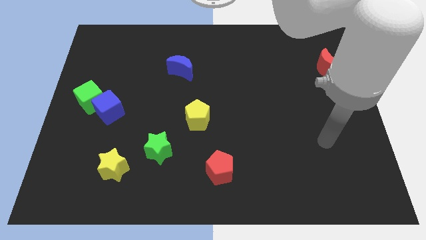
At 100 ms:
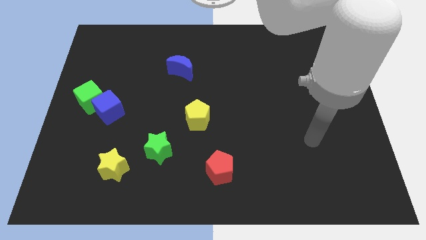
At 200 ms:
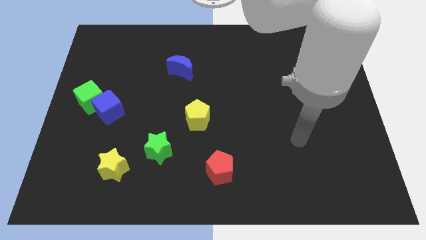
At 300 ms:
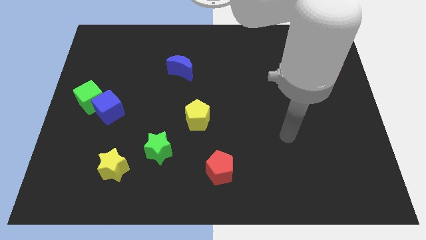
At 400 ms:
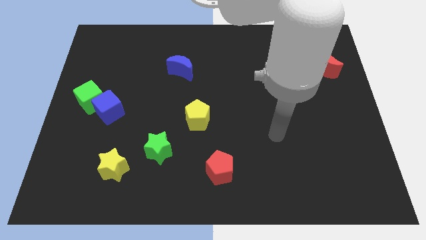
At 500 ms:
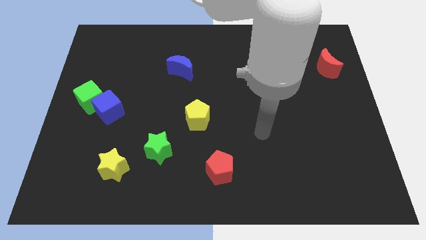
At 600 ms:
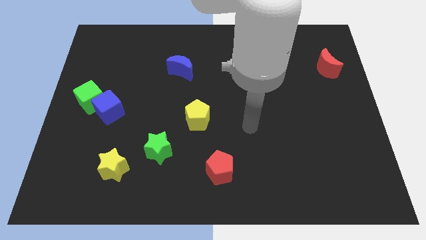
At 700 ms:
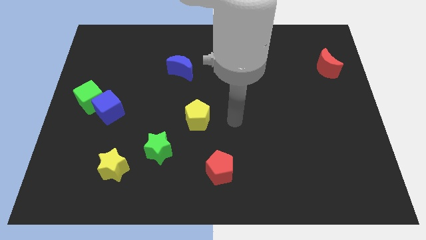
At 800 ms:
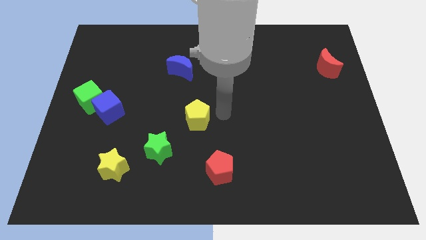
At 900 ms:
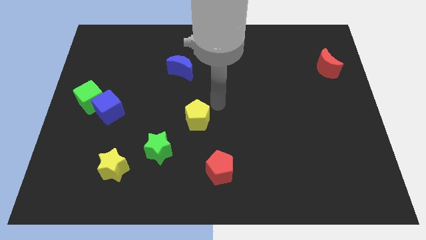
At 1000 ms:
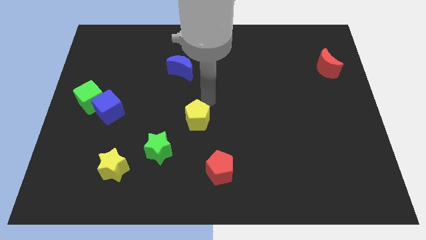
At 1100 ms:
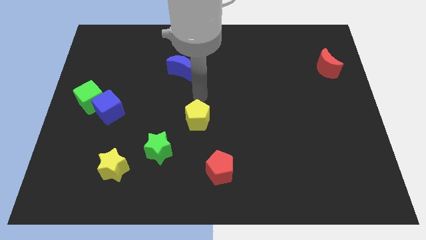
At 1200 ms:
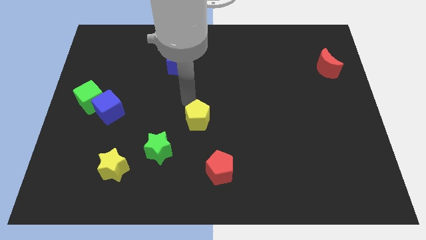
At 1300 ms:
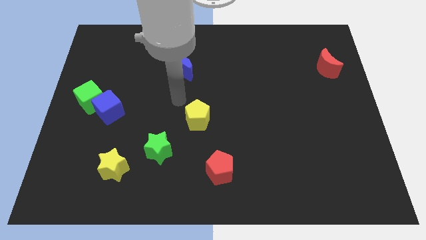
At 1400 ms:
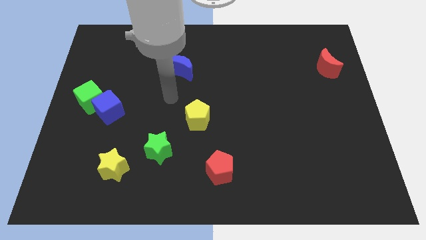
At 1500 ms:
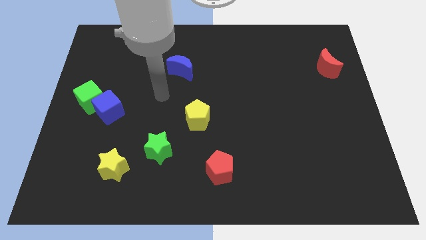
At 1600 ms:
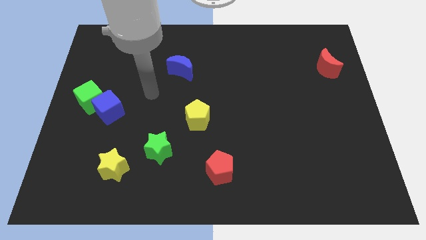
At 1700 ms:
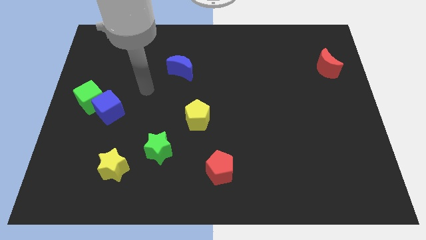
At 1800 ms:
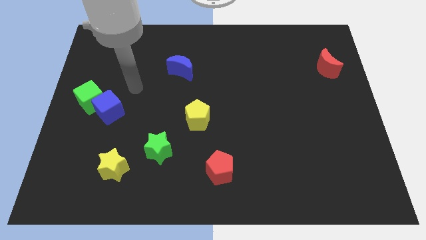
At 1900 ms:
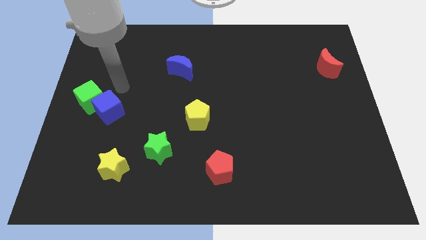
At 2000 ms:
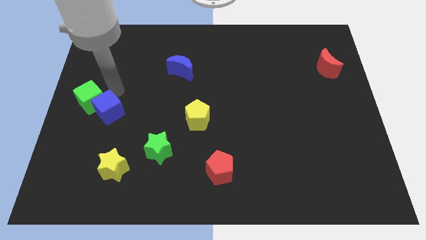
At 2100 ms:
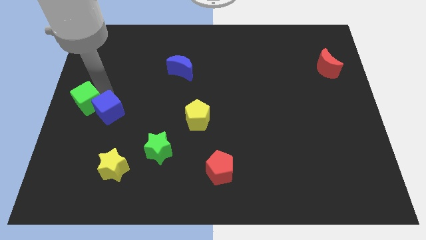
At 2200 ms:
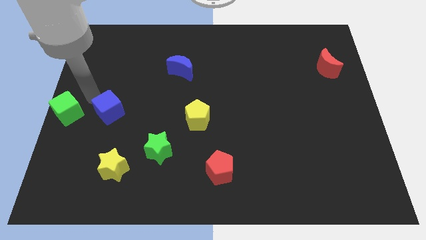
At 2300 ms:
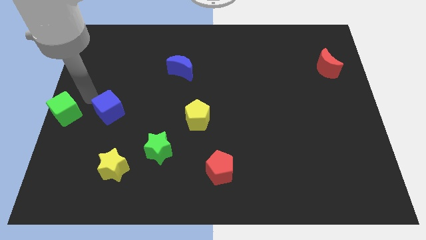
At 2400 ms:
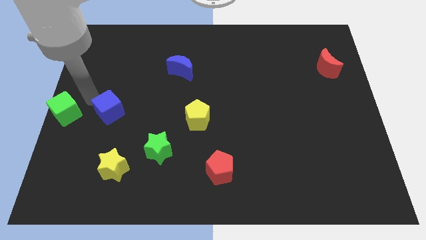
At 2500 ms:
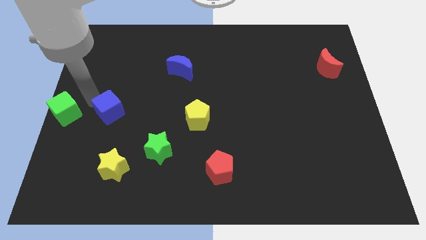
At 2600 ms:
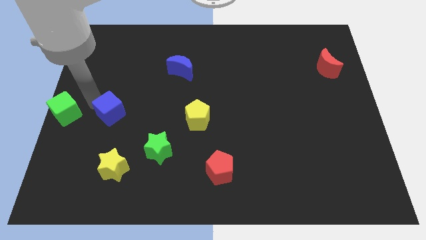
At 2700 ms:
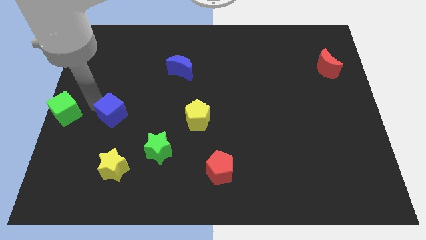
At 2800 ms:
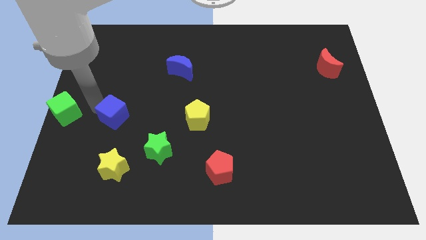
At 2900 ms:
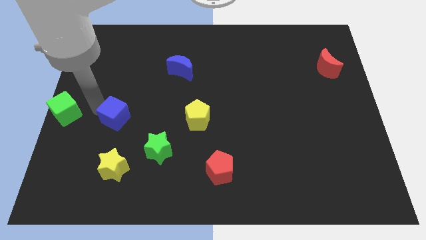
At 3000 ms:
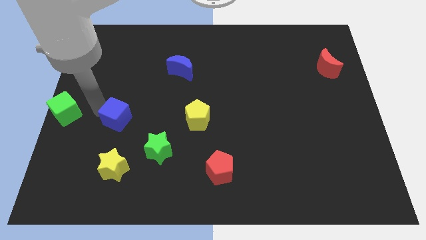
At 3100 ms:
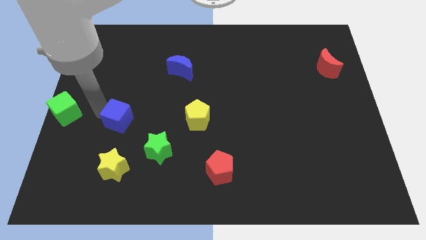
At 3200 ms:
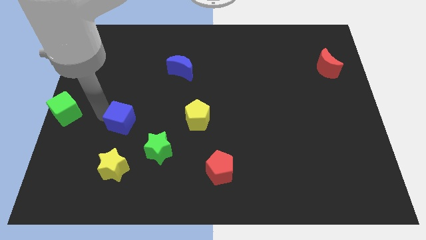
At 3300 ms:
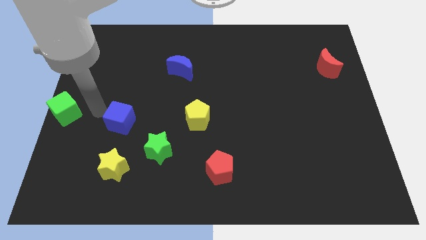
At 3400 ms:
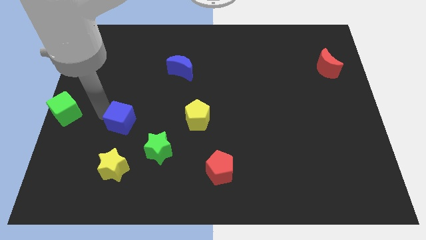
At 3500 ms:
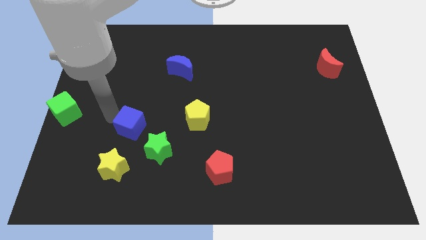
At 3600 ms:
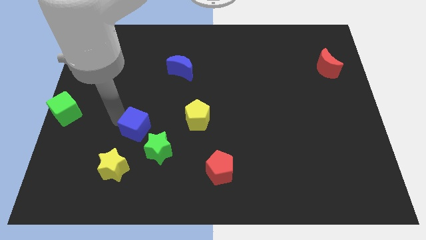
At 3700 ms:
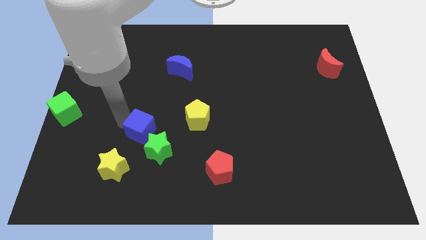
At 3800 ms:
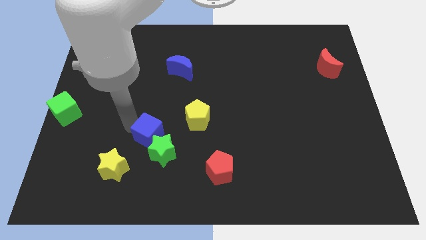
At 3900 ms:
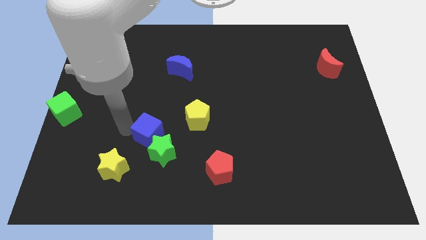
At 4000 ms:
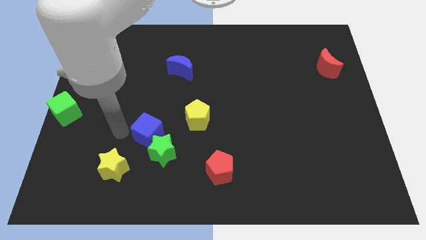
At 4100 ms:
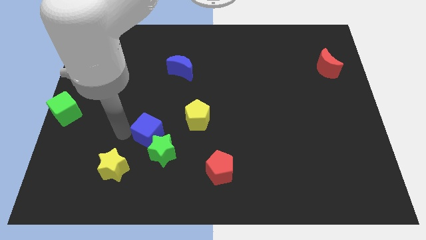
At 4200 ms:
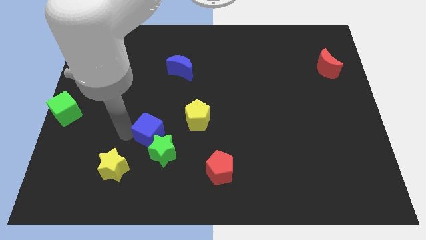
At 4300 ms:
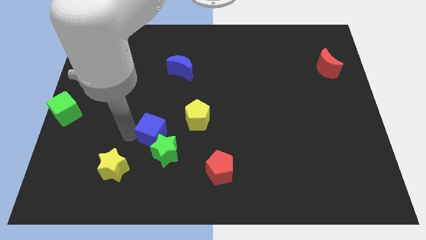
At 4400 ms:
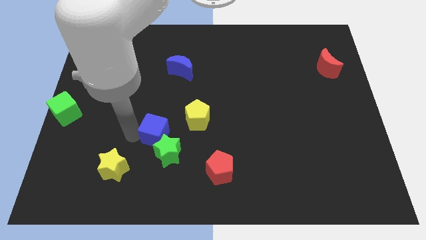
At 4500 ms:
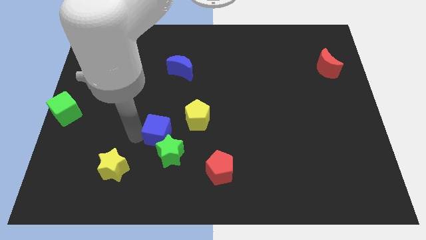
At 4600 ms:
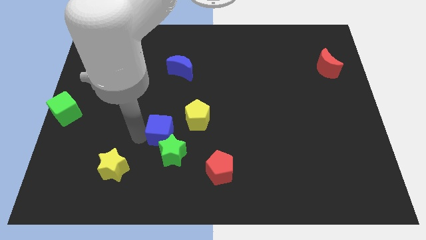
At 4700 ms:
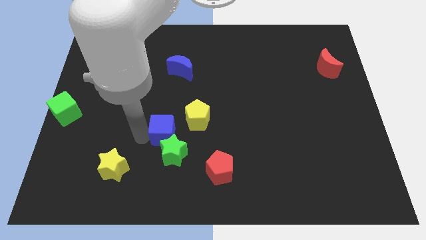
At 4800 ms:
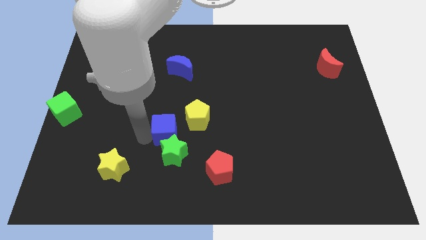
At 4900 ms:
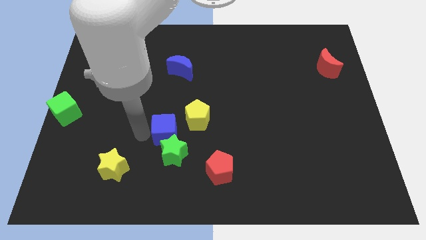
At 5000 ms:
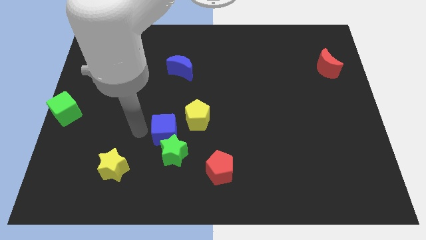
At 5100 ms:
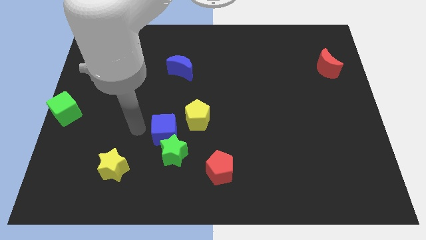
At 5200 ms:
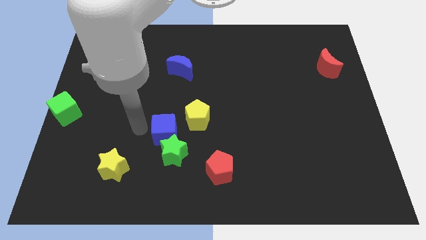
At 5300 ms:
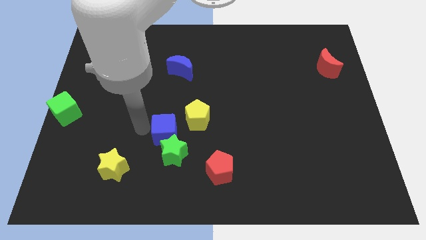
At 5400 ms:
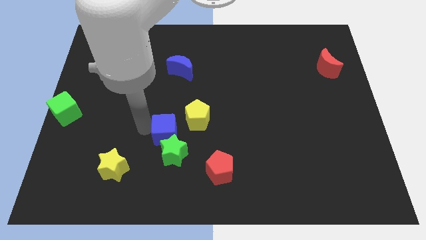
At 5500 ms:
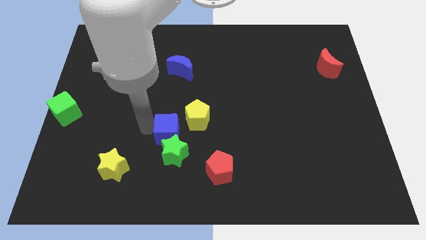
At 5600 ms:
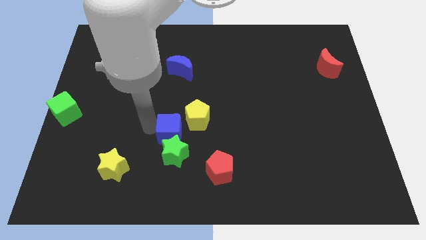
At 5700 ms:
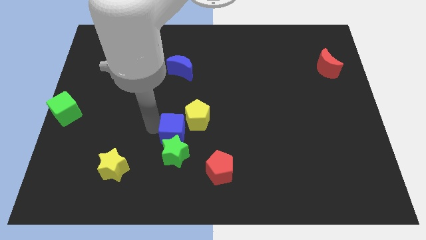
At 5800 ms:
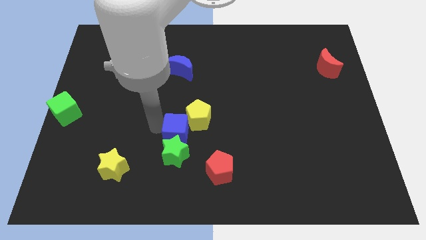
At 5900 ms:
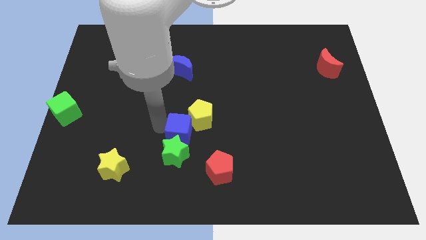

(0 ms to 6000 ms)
put the blue cube to the top left of the red pentagon

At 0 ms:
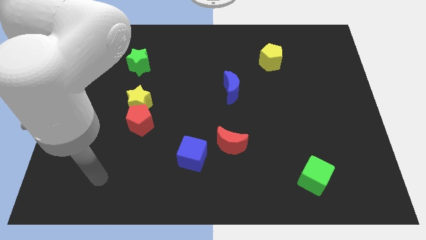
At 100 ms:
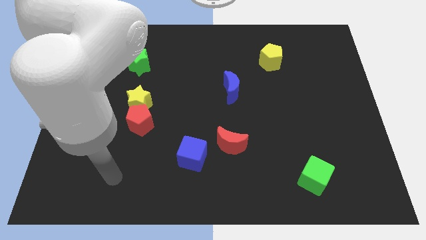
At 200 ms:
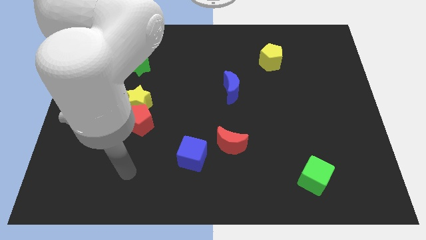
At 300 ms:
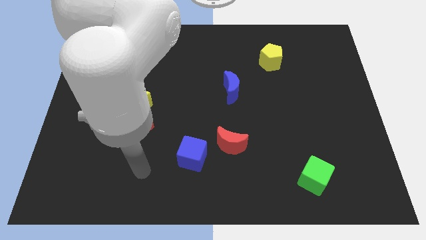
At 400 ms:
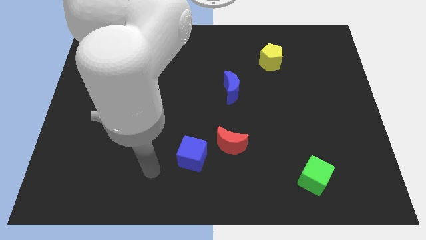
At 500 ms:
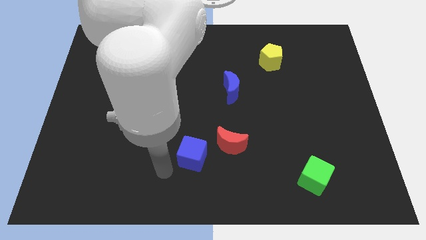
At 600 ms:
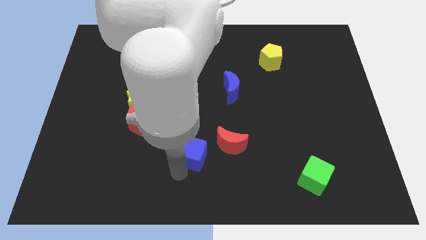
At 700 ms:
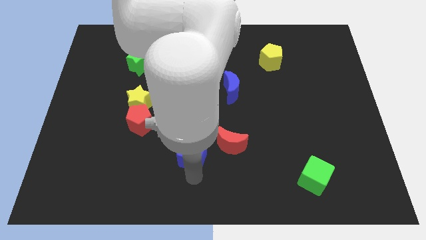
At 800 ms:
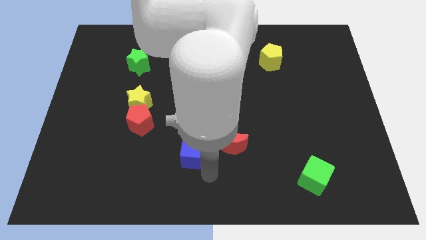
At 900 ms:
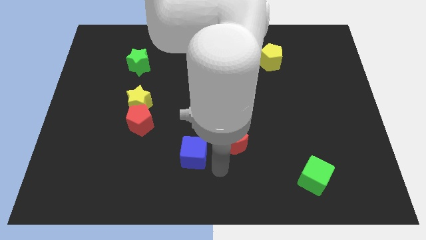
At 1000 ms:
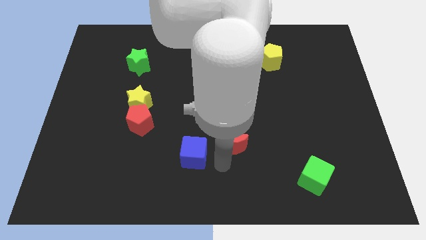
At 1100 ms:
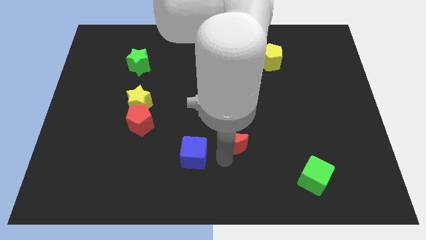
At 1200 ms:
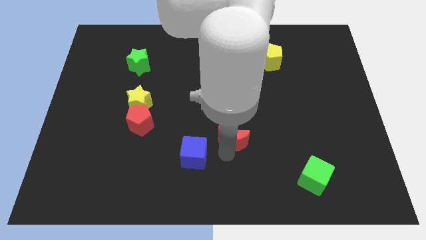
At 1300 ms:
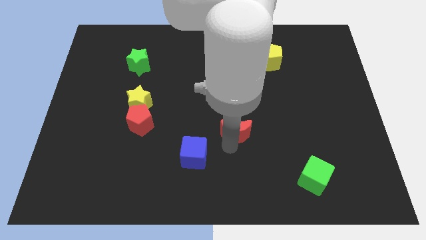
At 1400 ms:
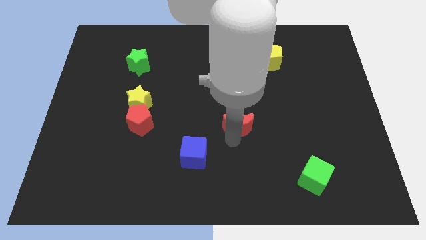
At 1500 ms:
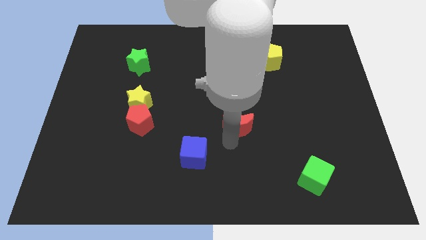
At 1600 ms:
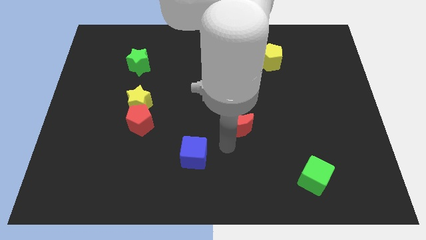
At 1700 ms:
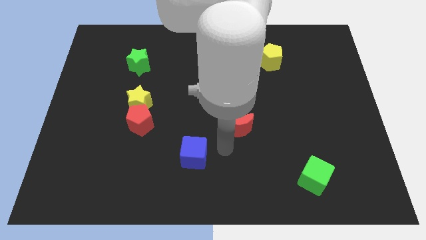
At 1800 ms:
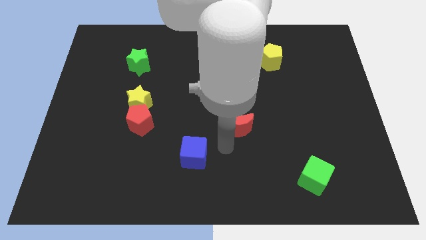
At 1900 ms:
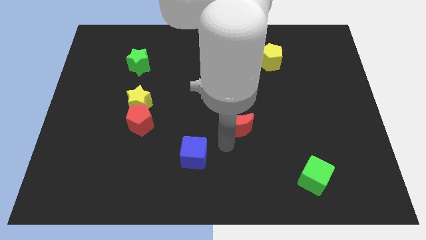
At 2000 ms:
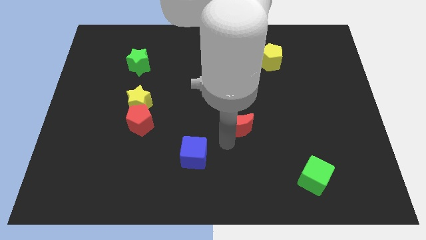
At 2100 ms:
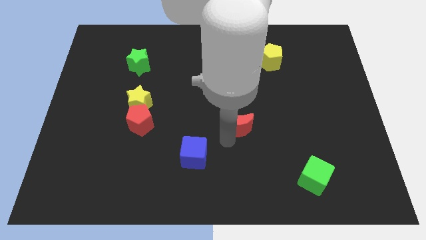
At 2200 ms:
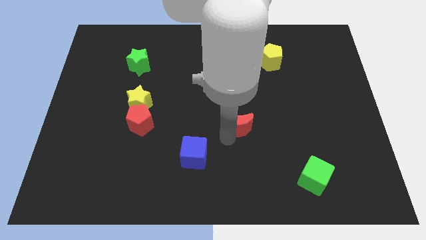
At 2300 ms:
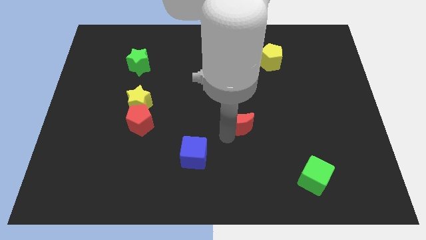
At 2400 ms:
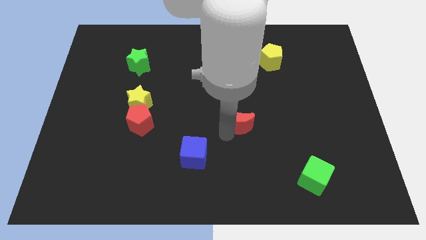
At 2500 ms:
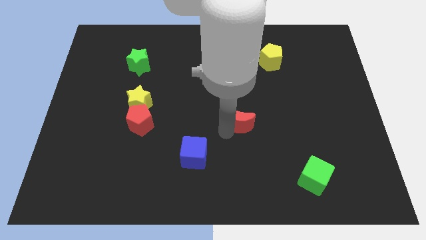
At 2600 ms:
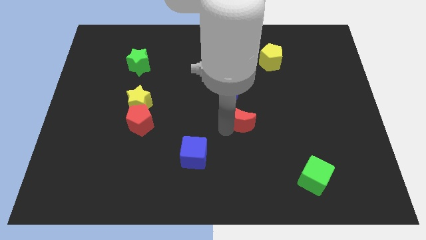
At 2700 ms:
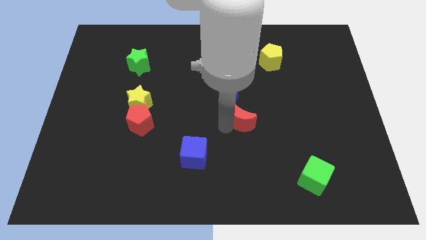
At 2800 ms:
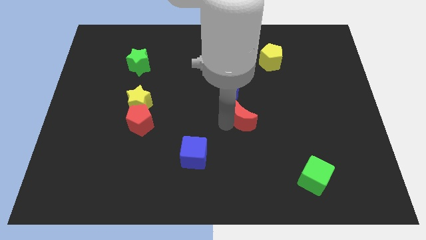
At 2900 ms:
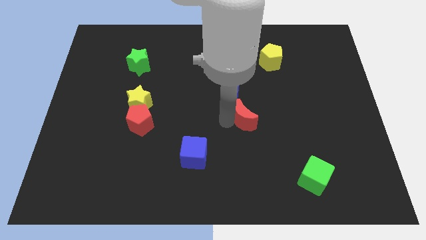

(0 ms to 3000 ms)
move the red moon to the bottom right of the blue moon

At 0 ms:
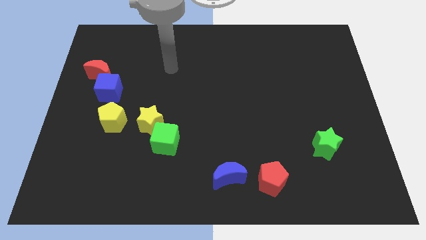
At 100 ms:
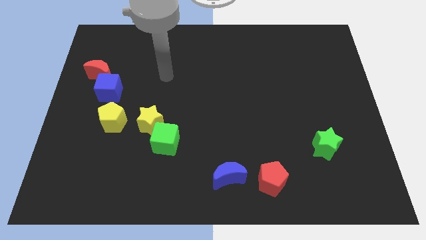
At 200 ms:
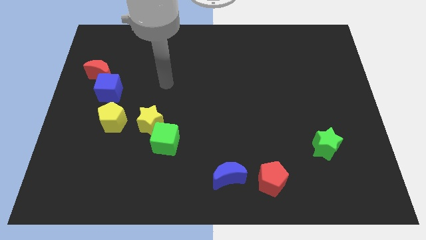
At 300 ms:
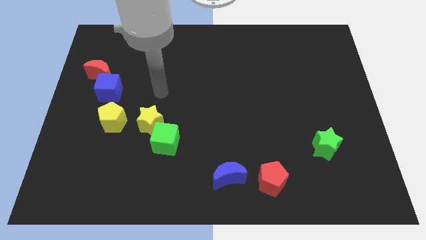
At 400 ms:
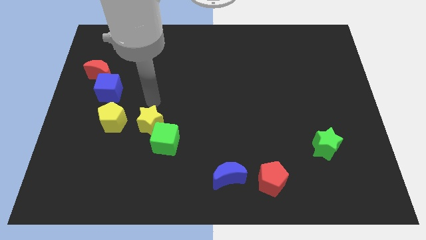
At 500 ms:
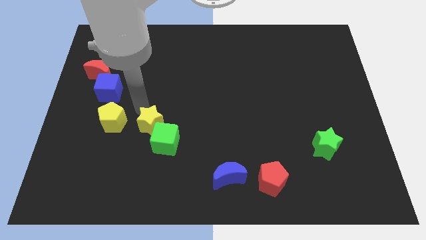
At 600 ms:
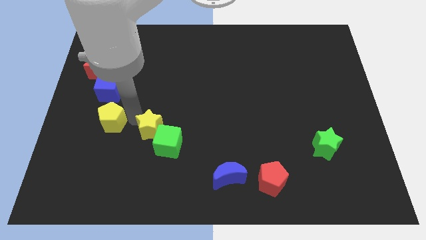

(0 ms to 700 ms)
put the yellow pentagon to the top left side of the yellow star
